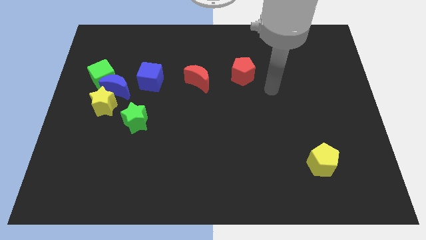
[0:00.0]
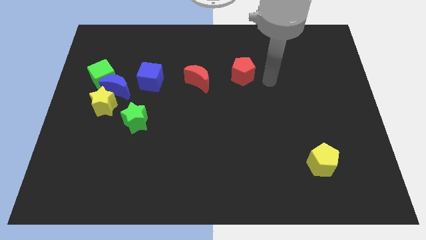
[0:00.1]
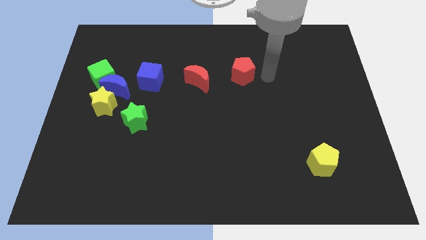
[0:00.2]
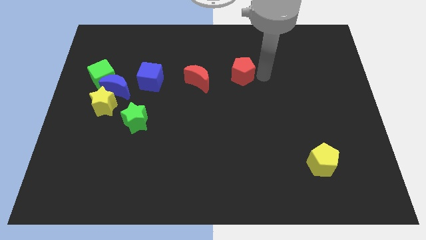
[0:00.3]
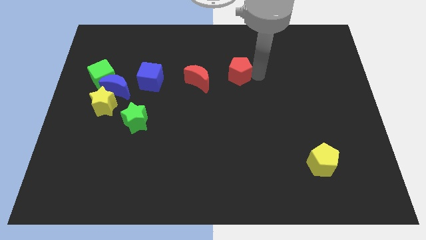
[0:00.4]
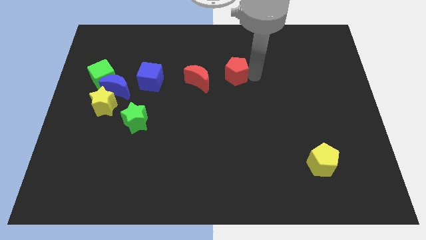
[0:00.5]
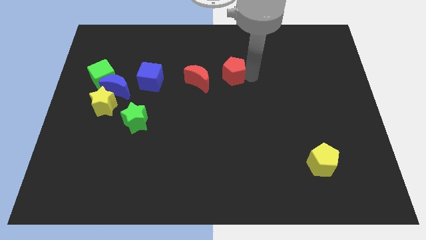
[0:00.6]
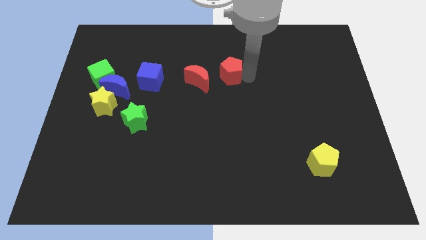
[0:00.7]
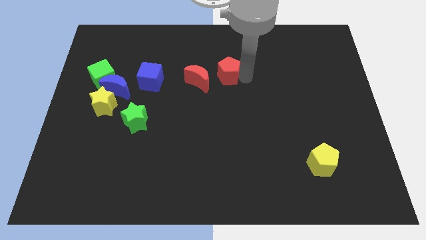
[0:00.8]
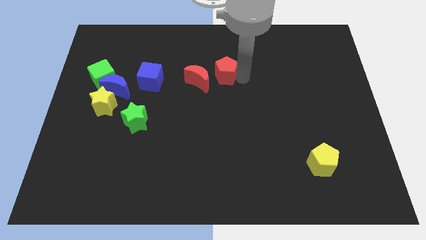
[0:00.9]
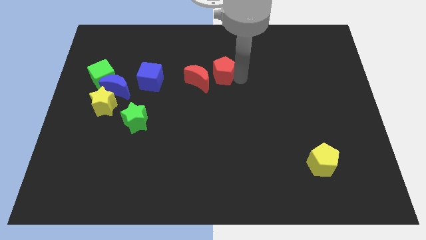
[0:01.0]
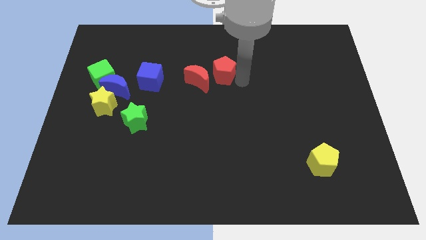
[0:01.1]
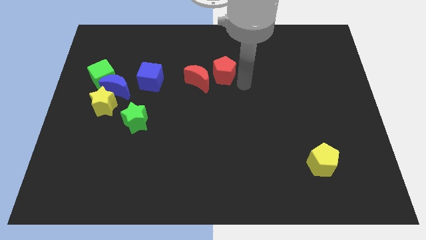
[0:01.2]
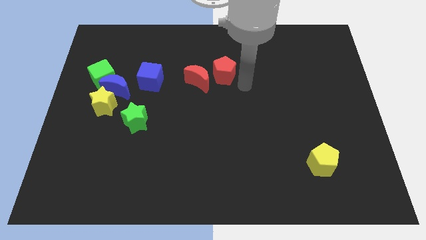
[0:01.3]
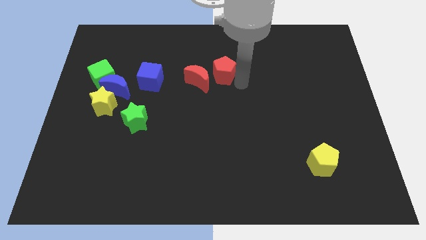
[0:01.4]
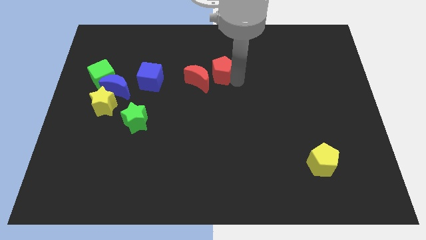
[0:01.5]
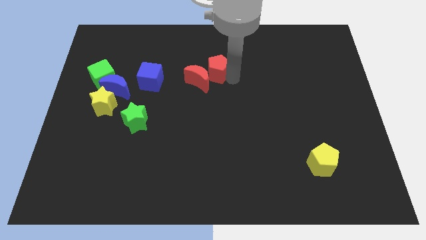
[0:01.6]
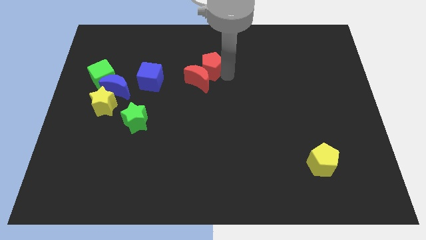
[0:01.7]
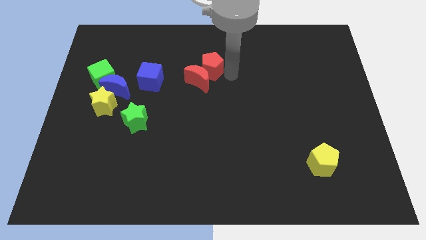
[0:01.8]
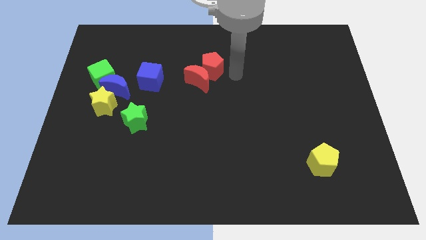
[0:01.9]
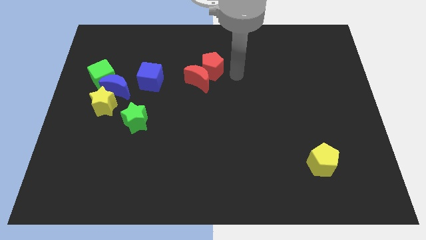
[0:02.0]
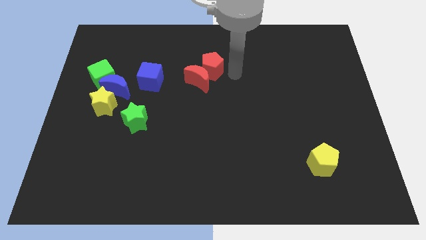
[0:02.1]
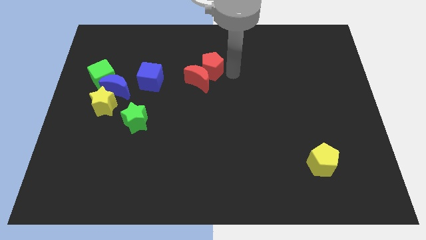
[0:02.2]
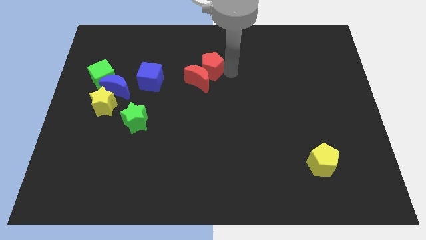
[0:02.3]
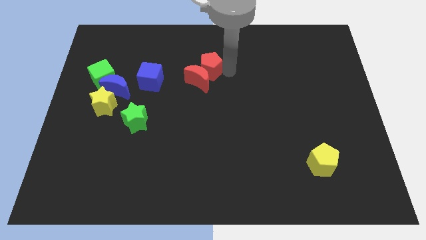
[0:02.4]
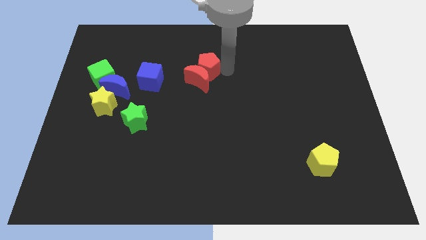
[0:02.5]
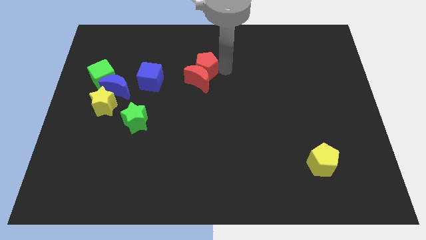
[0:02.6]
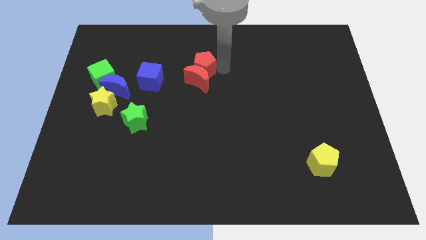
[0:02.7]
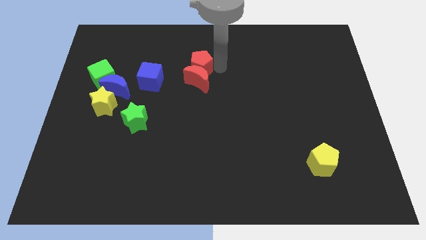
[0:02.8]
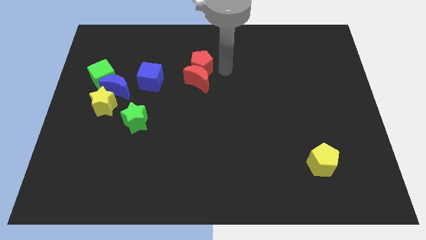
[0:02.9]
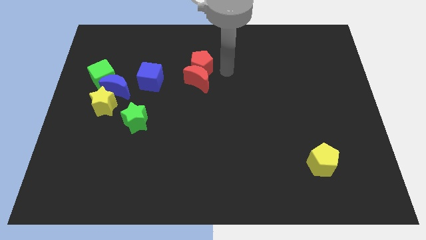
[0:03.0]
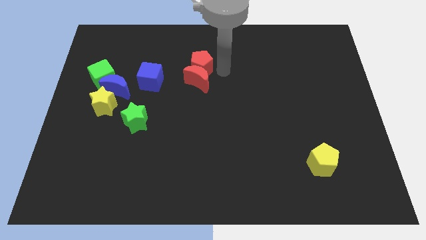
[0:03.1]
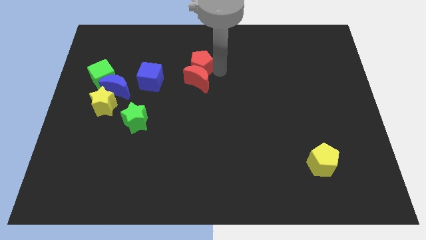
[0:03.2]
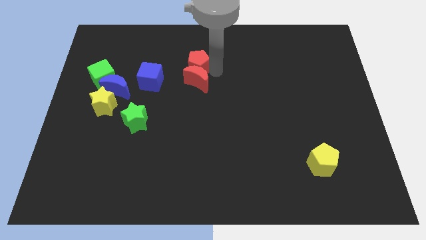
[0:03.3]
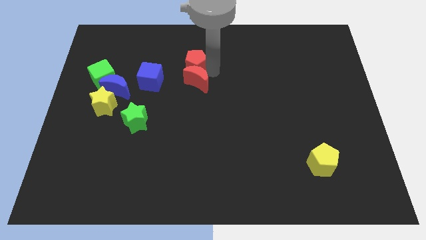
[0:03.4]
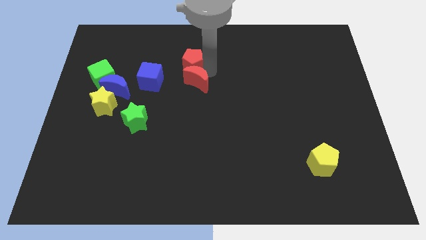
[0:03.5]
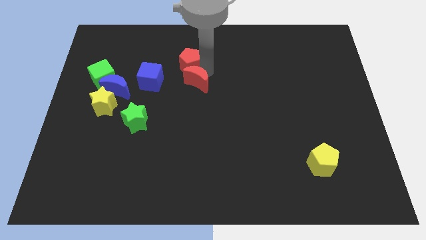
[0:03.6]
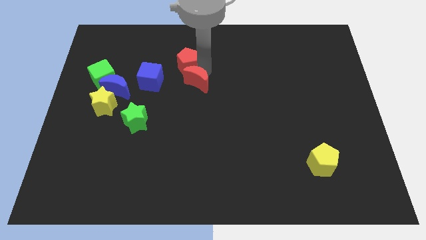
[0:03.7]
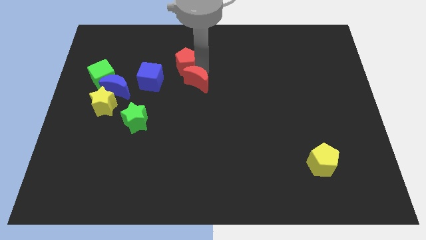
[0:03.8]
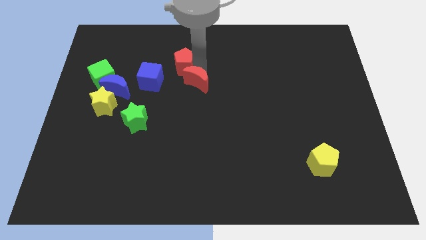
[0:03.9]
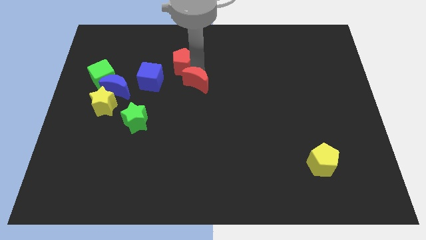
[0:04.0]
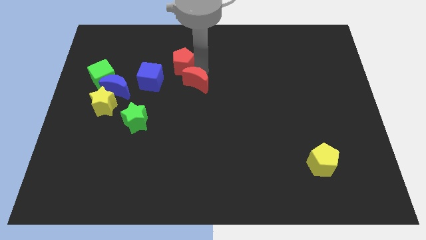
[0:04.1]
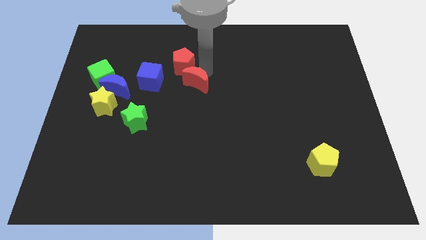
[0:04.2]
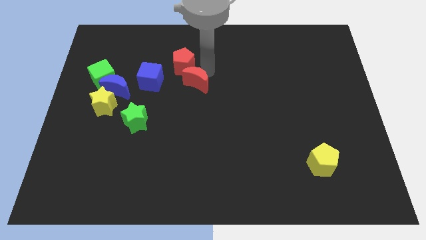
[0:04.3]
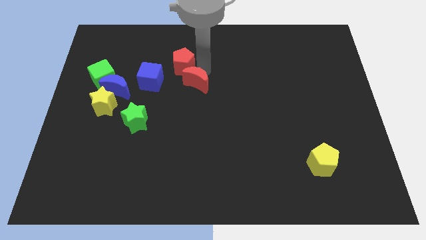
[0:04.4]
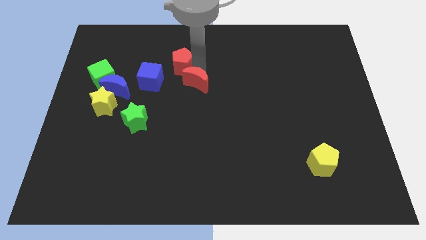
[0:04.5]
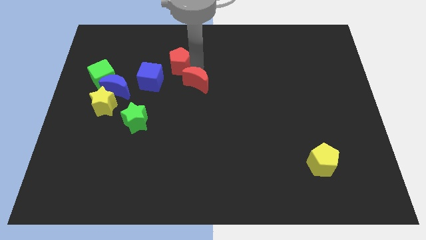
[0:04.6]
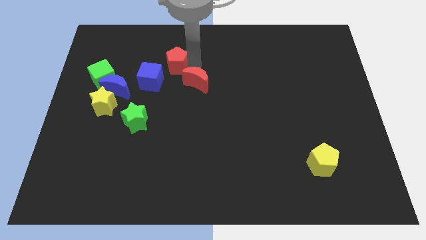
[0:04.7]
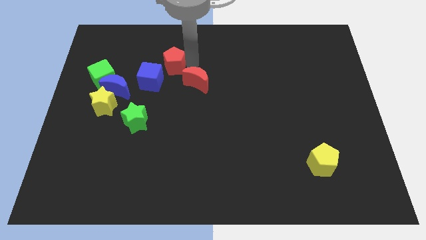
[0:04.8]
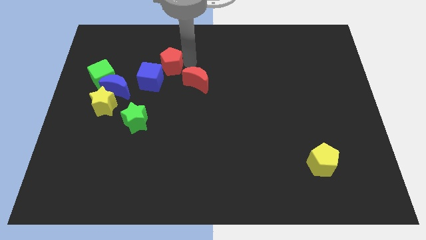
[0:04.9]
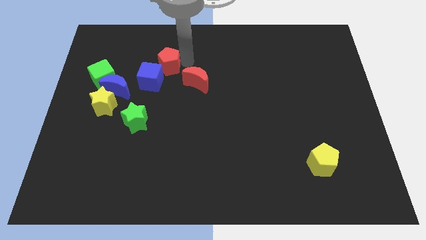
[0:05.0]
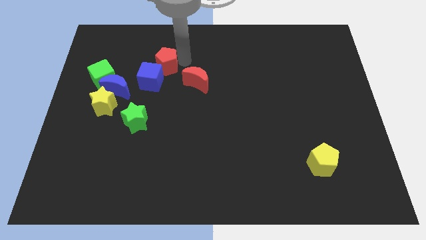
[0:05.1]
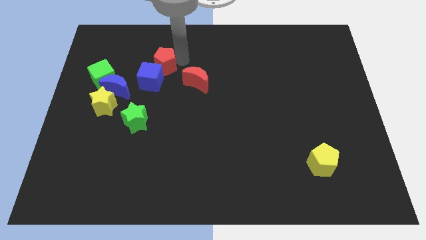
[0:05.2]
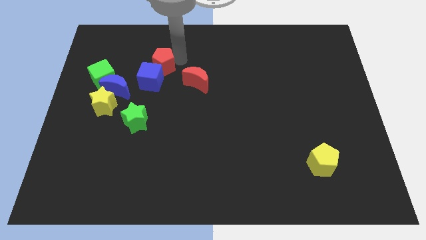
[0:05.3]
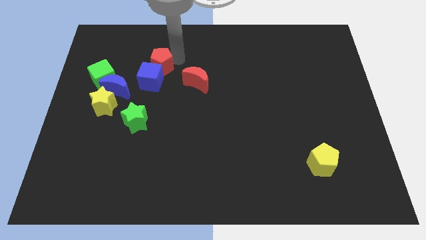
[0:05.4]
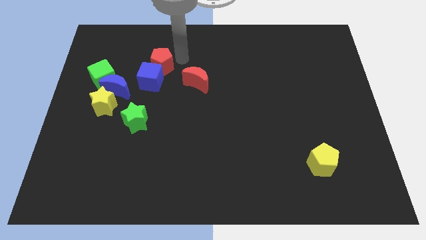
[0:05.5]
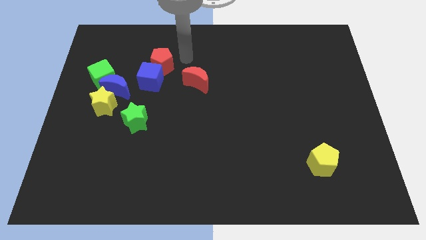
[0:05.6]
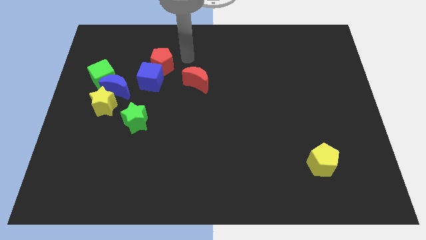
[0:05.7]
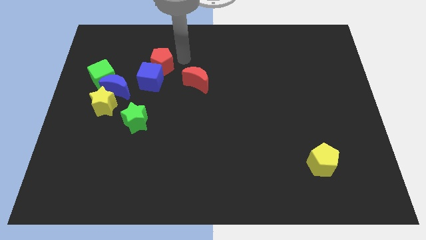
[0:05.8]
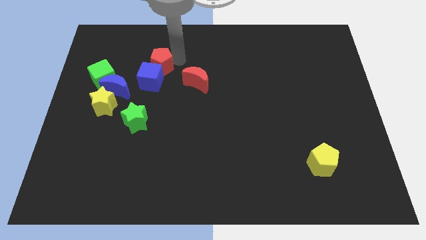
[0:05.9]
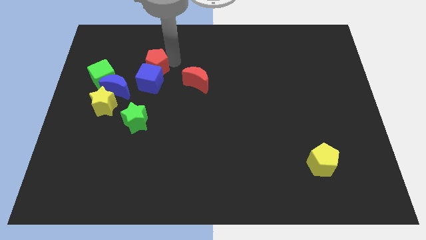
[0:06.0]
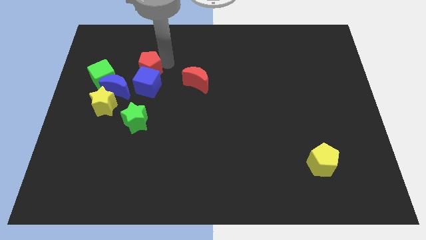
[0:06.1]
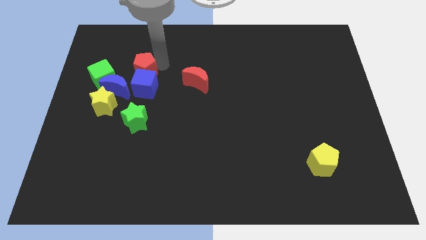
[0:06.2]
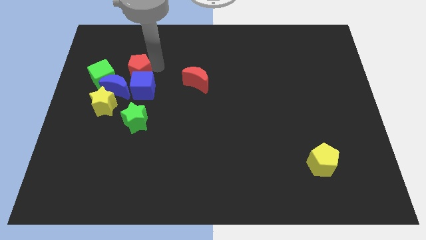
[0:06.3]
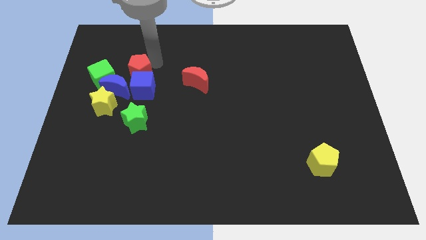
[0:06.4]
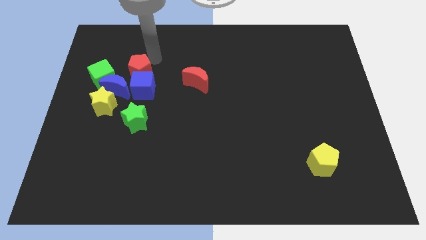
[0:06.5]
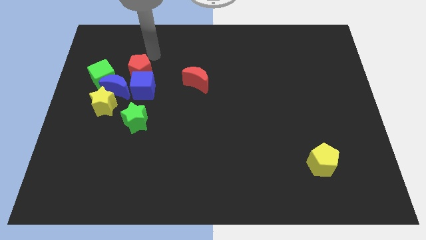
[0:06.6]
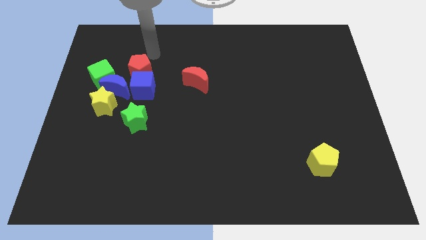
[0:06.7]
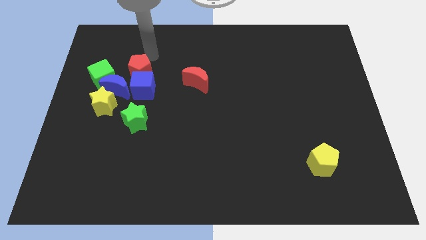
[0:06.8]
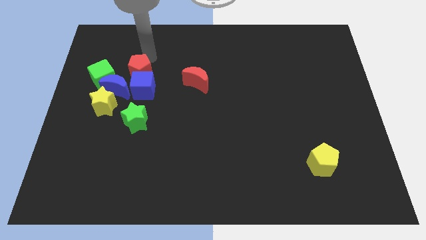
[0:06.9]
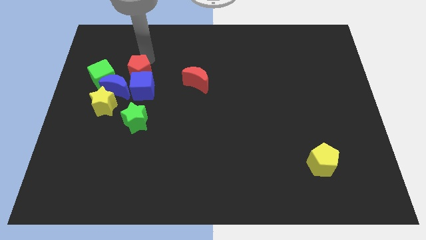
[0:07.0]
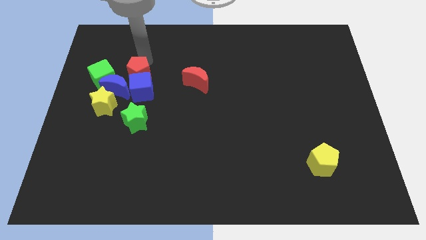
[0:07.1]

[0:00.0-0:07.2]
push the red pentagon to the top right of the yellow star

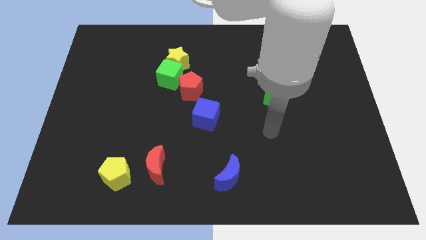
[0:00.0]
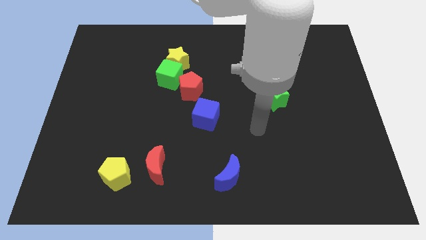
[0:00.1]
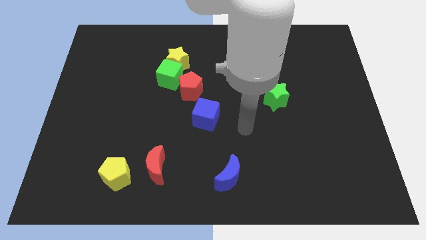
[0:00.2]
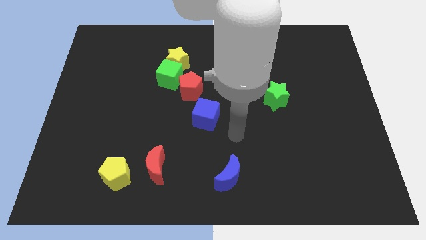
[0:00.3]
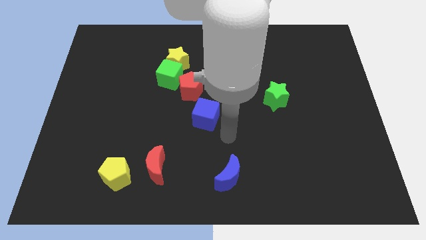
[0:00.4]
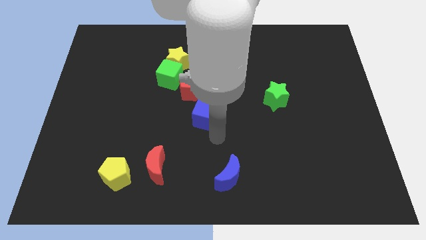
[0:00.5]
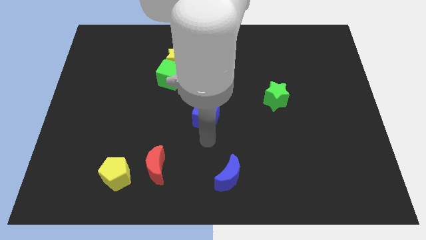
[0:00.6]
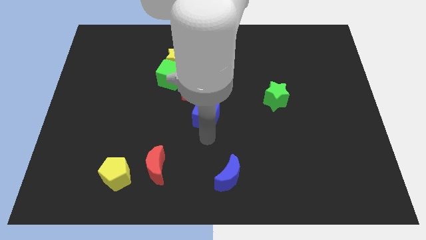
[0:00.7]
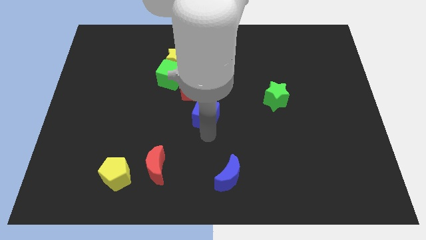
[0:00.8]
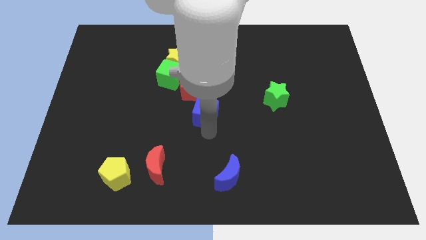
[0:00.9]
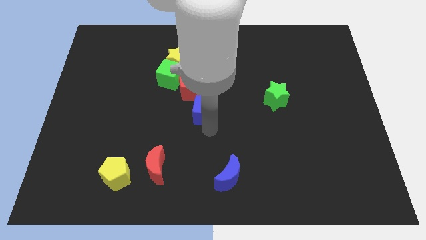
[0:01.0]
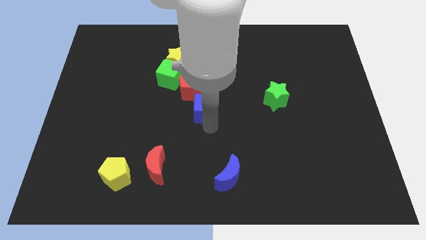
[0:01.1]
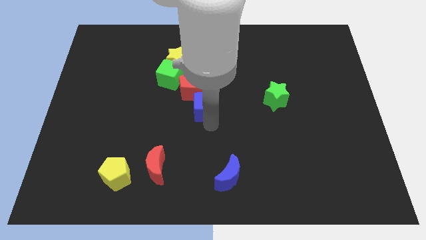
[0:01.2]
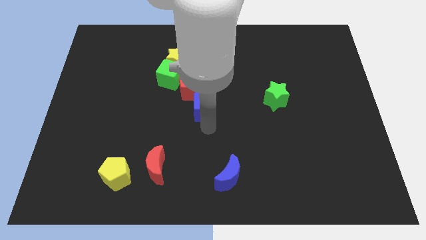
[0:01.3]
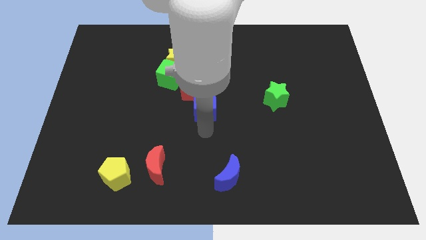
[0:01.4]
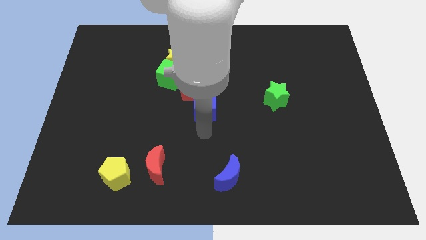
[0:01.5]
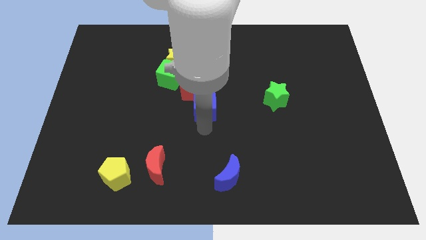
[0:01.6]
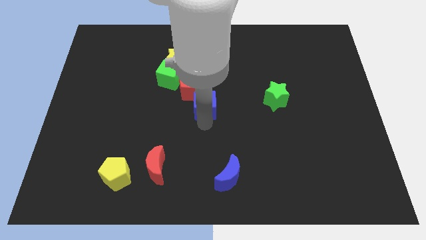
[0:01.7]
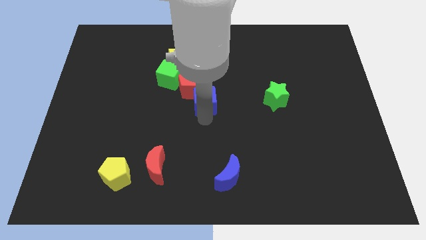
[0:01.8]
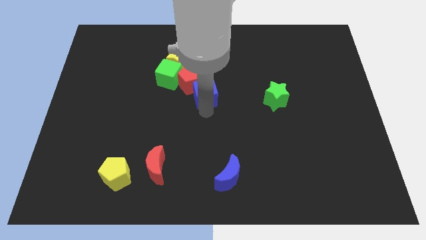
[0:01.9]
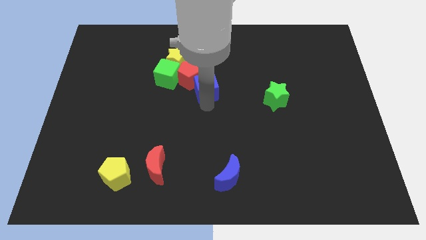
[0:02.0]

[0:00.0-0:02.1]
put the blue cube to the bottom right side of the yellow star
